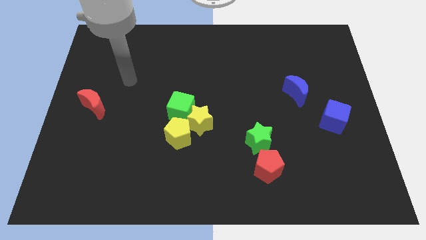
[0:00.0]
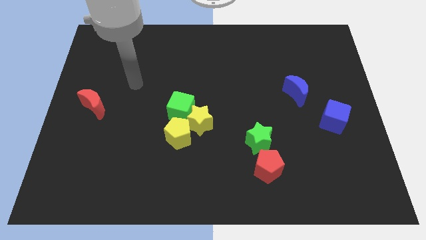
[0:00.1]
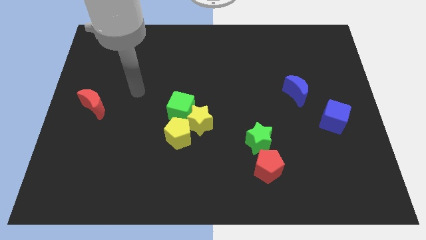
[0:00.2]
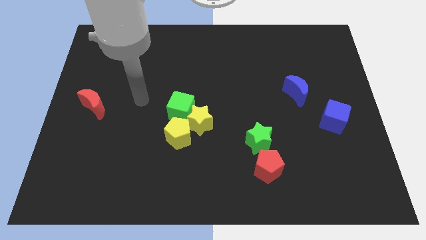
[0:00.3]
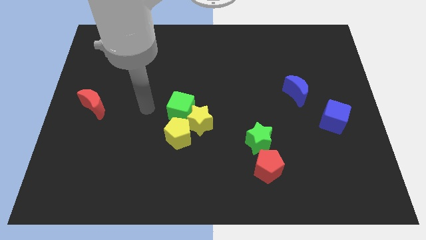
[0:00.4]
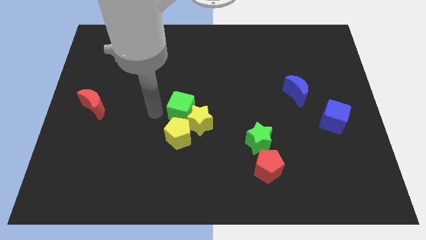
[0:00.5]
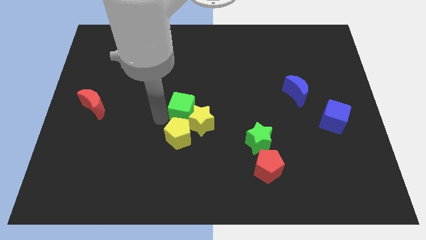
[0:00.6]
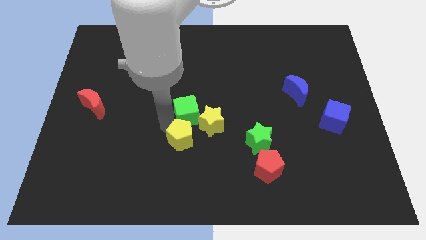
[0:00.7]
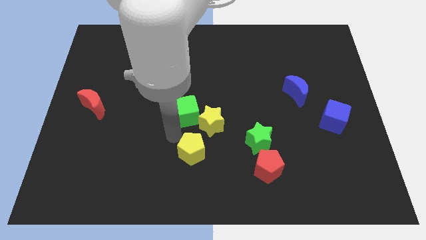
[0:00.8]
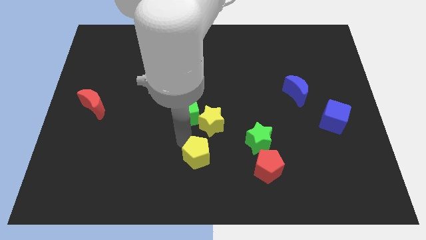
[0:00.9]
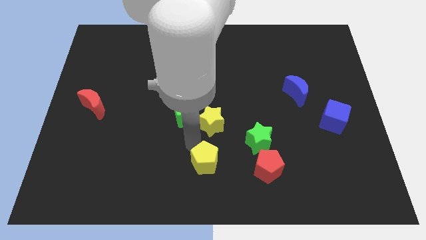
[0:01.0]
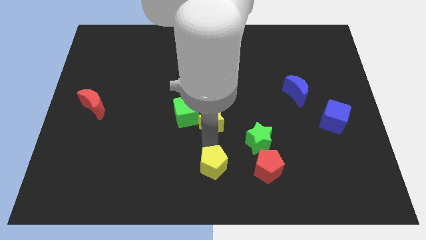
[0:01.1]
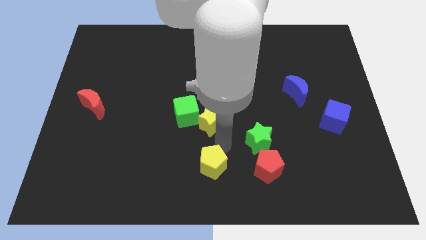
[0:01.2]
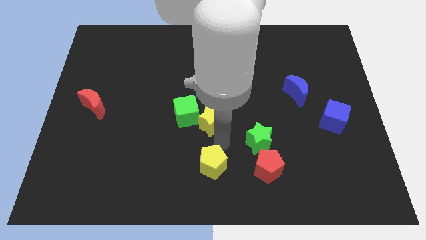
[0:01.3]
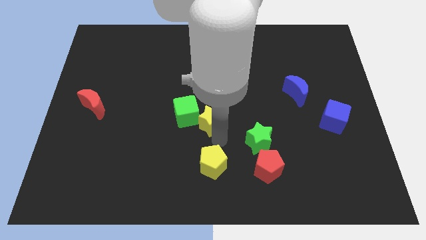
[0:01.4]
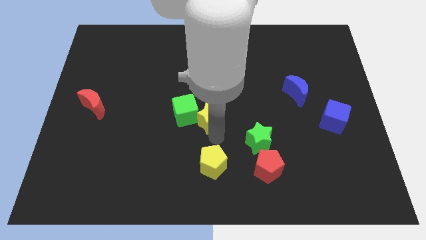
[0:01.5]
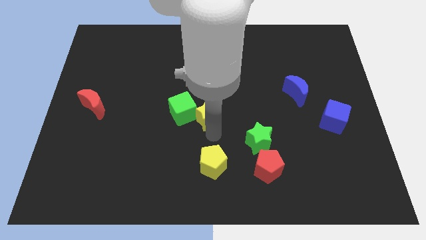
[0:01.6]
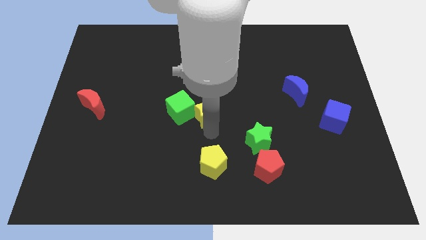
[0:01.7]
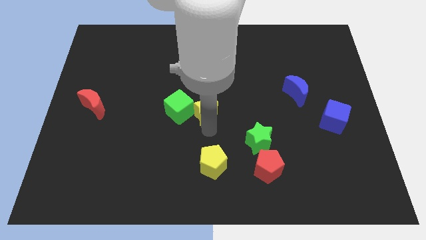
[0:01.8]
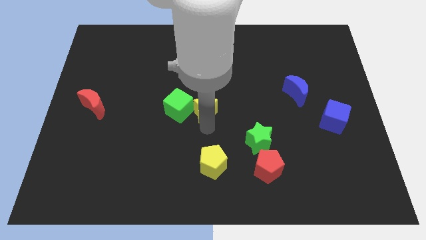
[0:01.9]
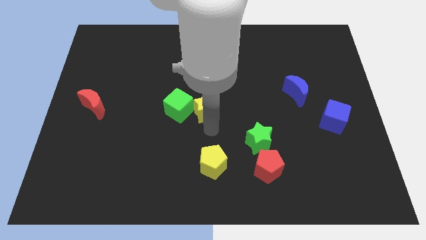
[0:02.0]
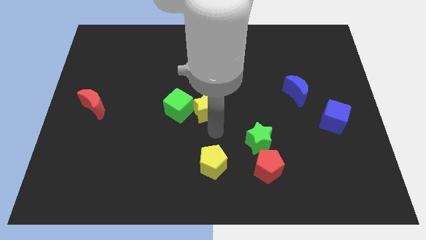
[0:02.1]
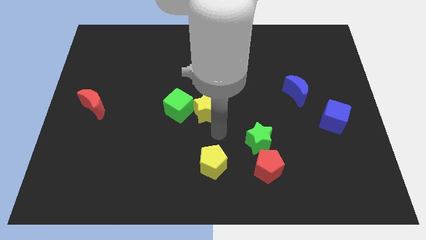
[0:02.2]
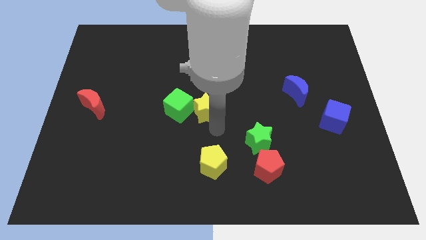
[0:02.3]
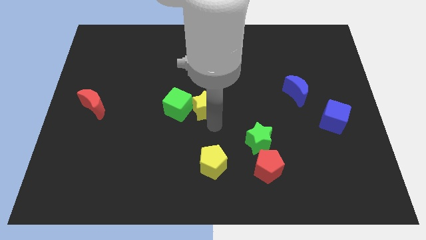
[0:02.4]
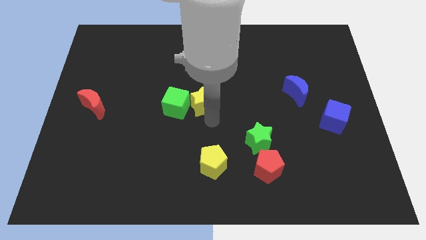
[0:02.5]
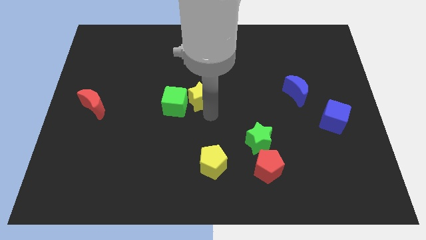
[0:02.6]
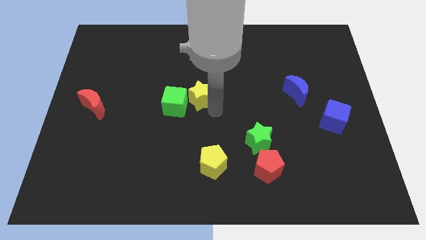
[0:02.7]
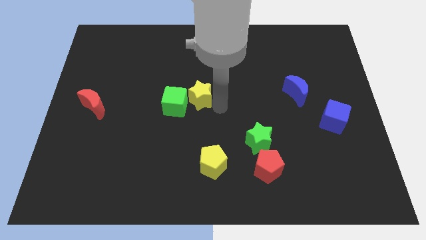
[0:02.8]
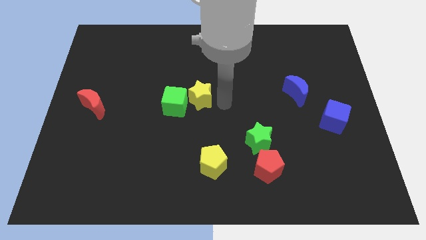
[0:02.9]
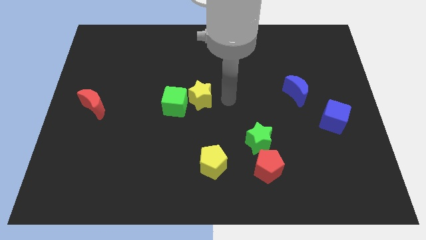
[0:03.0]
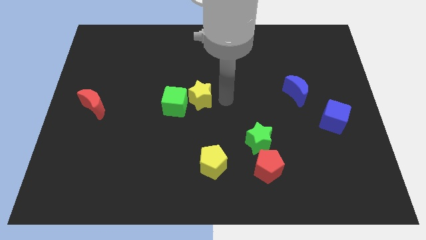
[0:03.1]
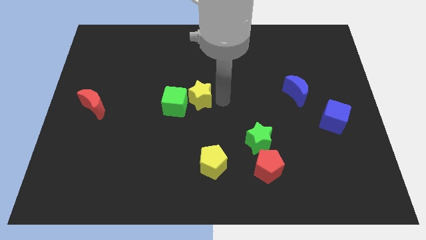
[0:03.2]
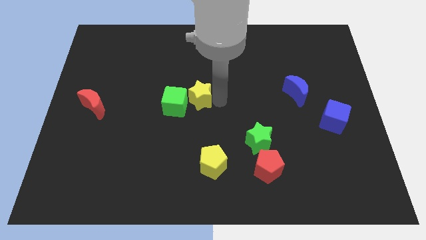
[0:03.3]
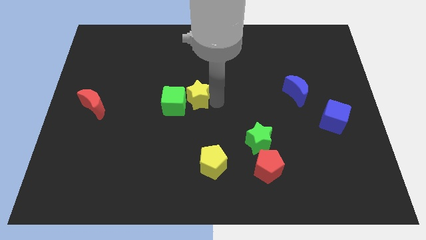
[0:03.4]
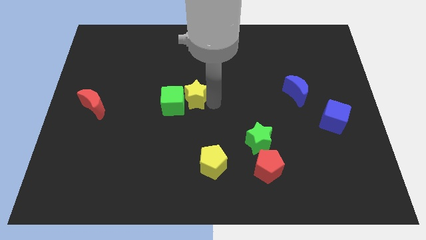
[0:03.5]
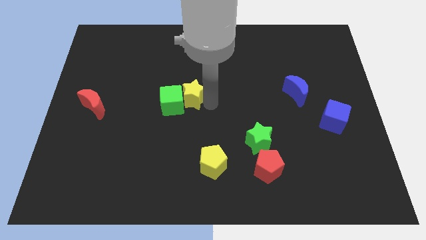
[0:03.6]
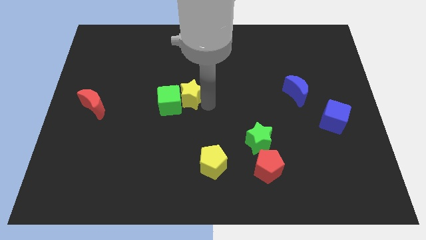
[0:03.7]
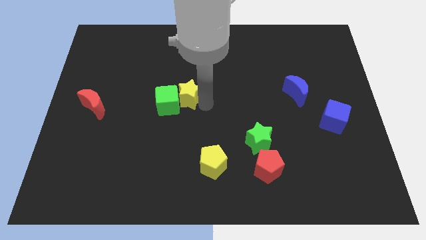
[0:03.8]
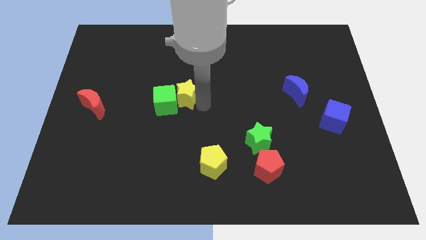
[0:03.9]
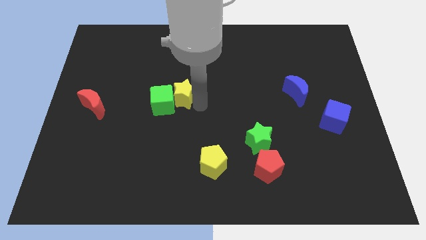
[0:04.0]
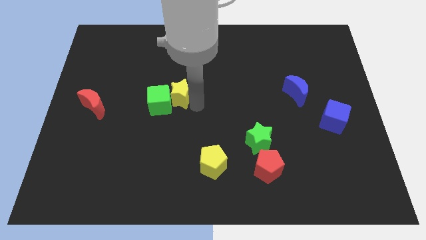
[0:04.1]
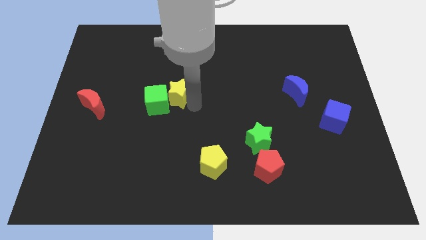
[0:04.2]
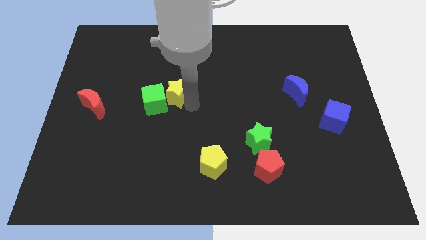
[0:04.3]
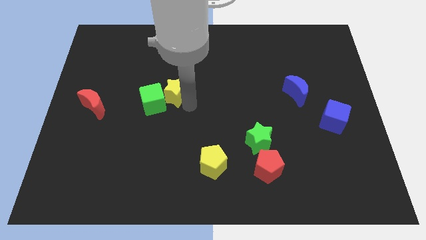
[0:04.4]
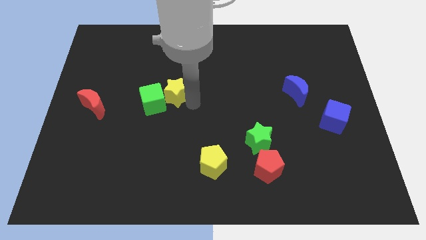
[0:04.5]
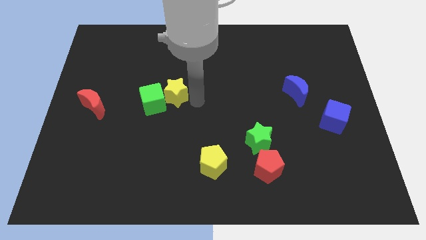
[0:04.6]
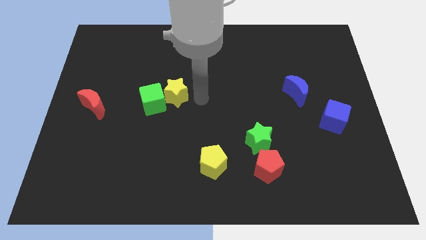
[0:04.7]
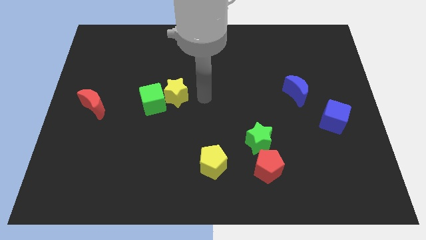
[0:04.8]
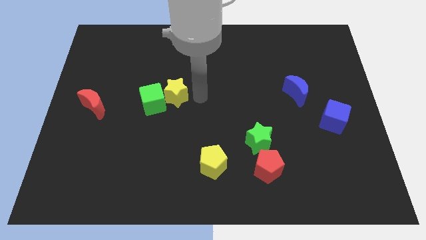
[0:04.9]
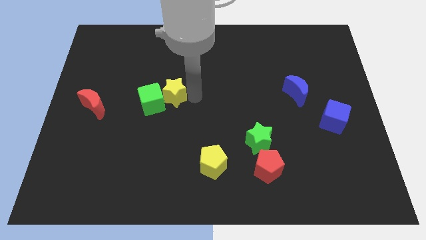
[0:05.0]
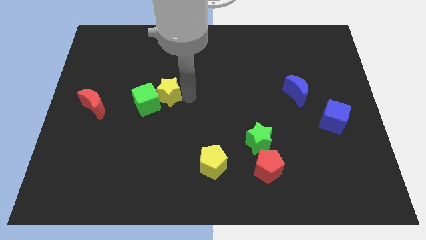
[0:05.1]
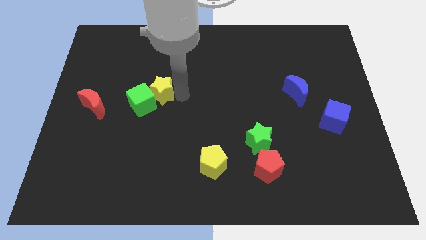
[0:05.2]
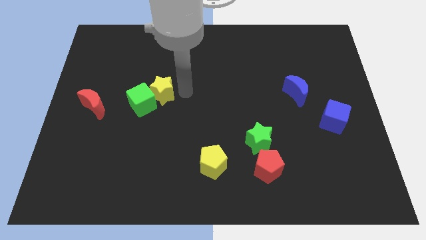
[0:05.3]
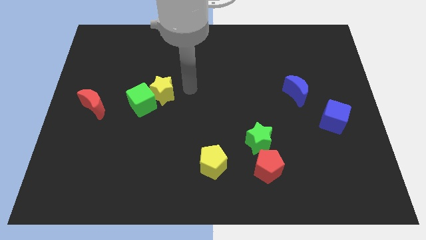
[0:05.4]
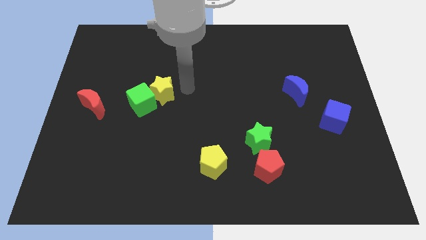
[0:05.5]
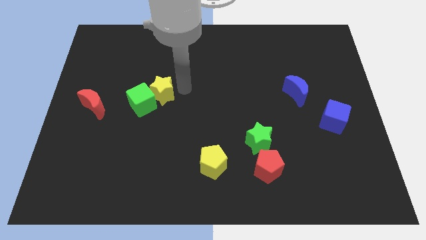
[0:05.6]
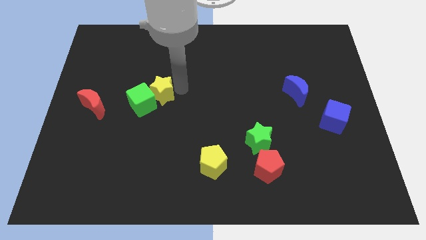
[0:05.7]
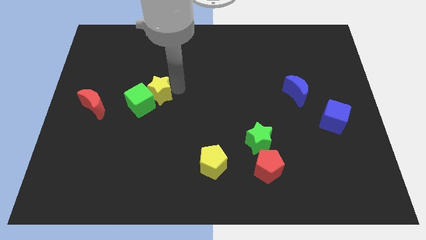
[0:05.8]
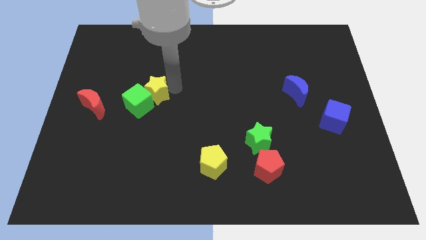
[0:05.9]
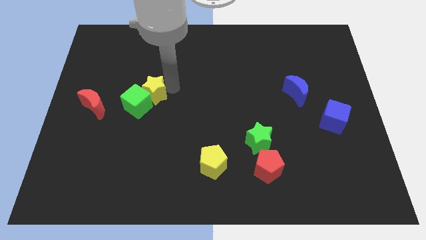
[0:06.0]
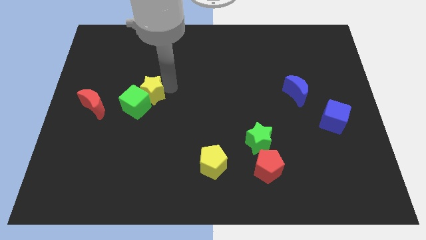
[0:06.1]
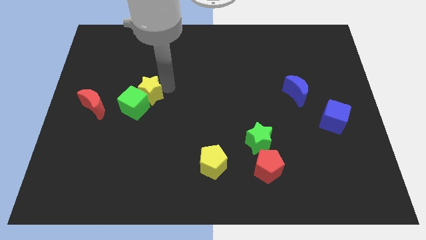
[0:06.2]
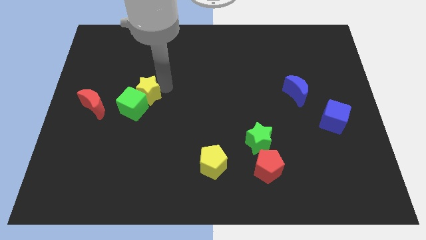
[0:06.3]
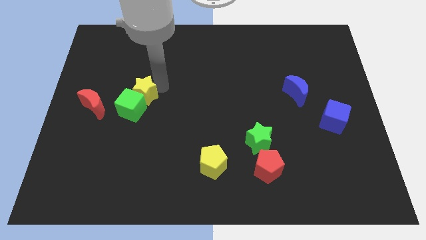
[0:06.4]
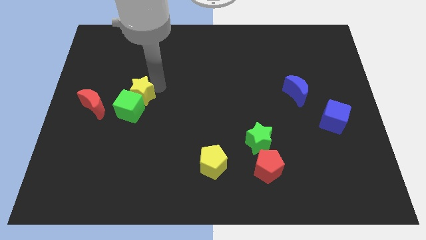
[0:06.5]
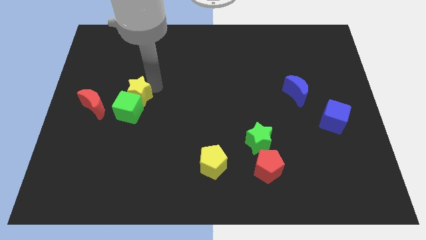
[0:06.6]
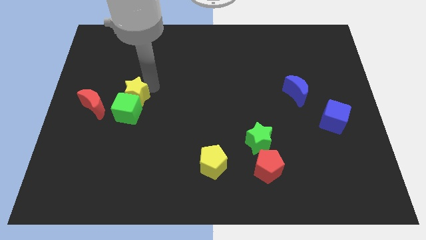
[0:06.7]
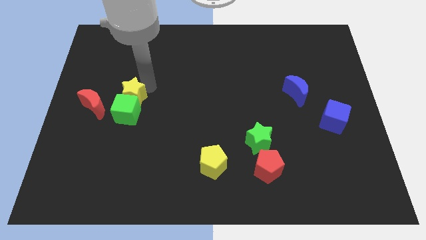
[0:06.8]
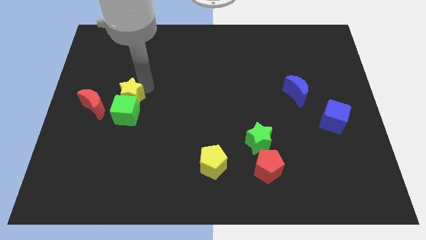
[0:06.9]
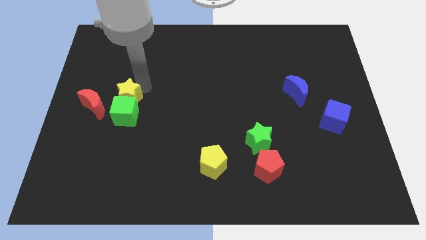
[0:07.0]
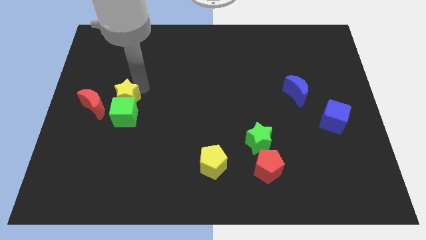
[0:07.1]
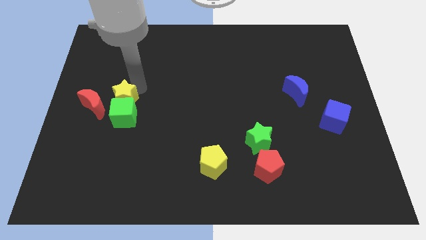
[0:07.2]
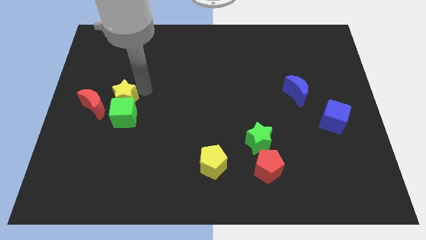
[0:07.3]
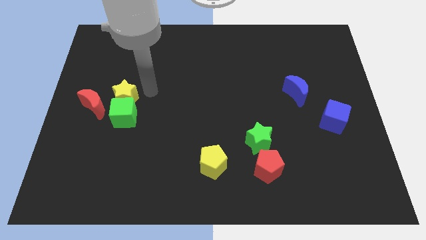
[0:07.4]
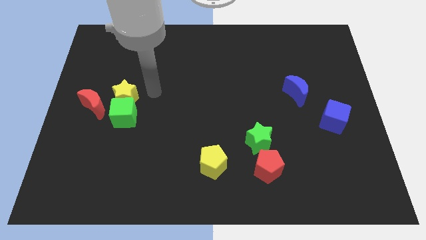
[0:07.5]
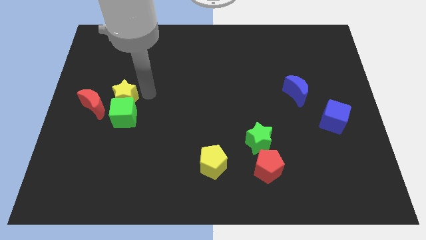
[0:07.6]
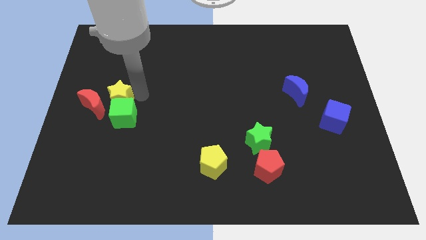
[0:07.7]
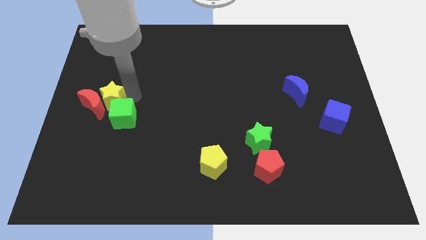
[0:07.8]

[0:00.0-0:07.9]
put the yellow star towards the red moon
